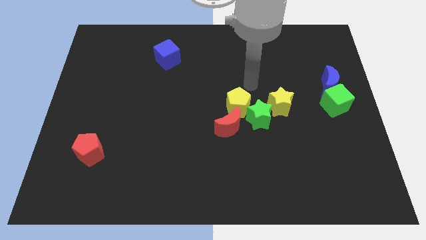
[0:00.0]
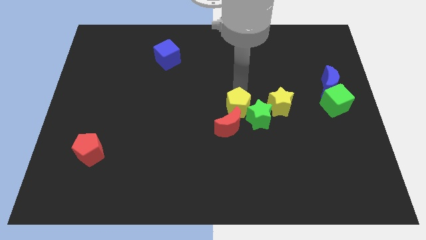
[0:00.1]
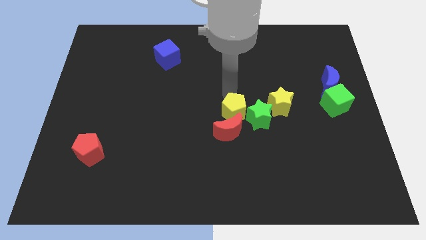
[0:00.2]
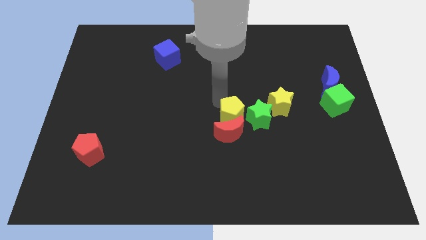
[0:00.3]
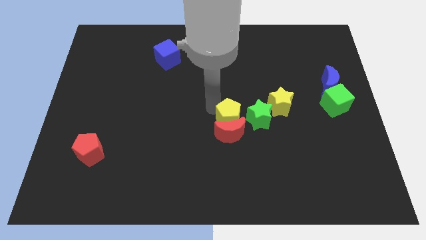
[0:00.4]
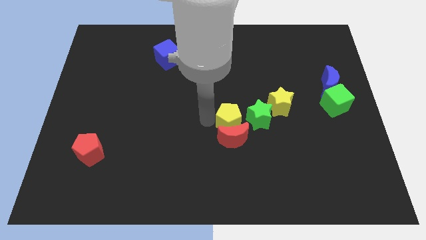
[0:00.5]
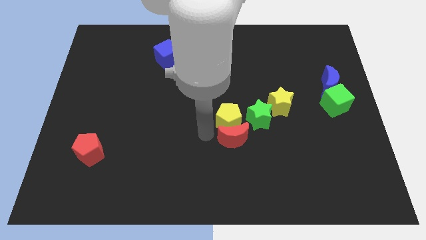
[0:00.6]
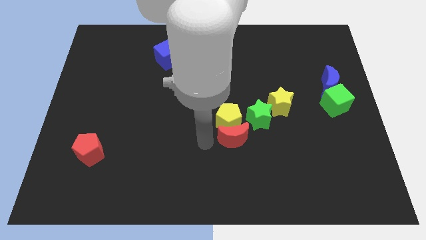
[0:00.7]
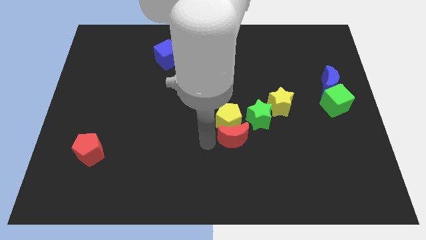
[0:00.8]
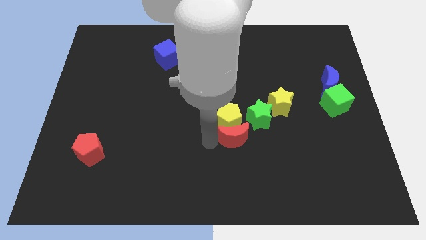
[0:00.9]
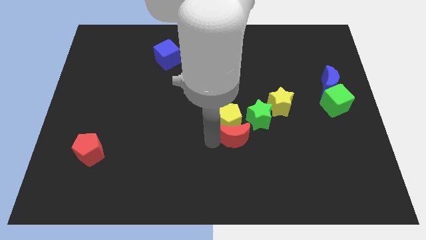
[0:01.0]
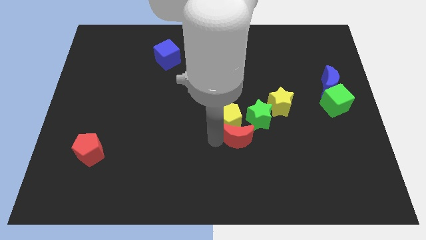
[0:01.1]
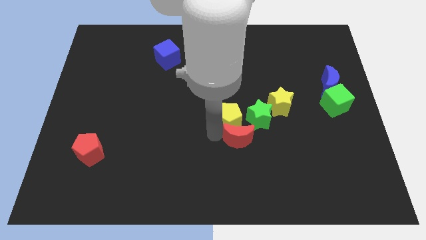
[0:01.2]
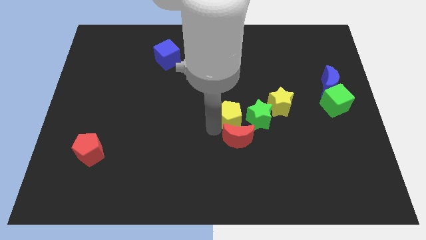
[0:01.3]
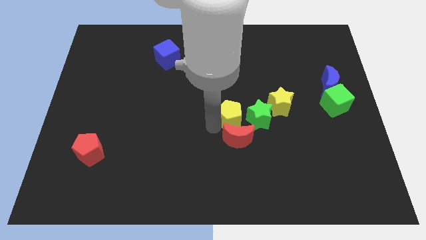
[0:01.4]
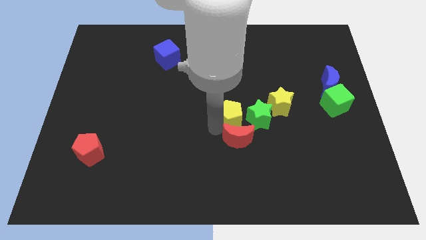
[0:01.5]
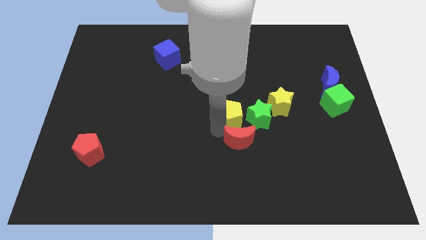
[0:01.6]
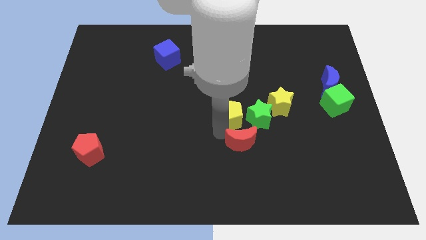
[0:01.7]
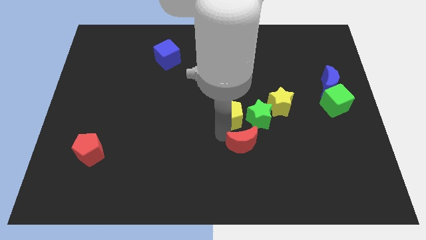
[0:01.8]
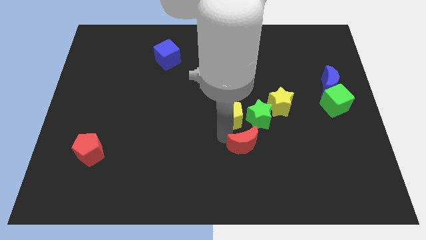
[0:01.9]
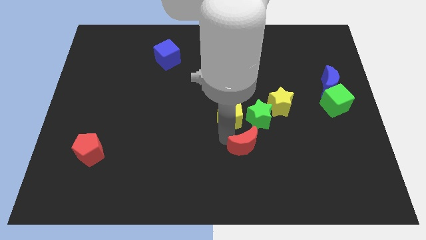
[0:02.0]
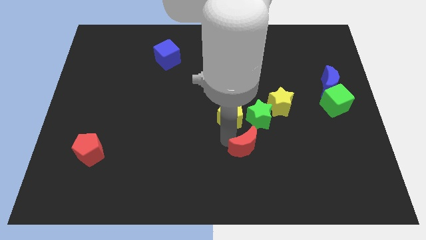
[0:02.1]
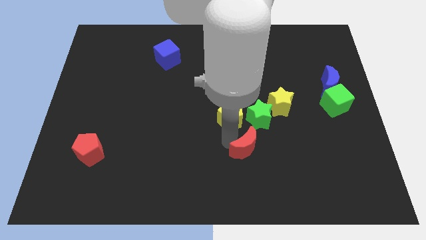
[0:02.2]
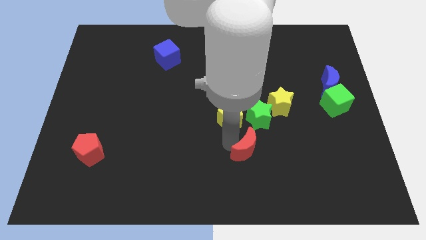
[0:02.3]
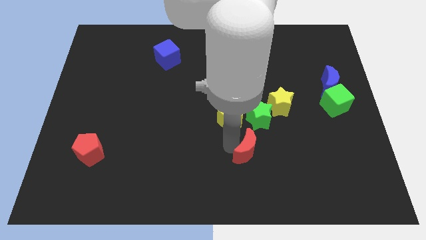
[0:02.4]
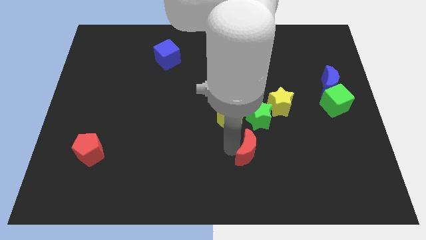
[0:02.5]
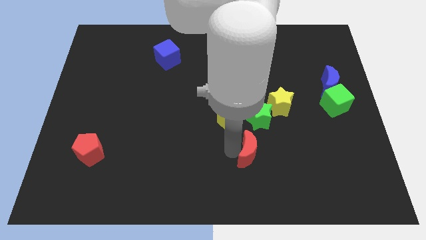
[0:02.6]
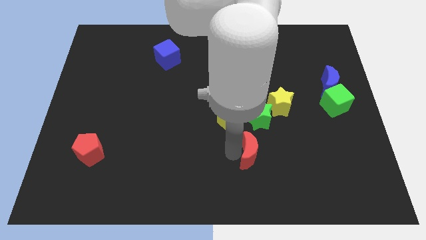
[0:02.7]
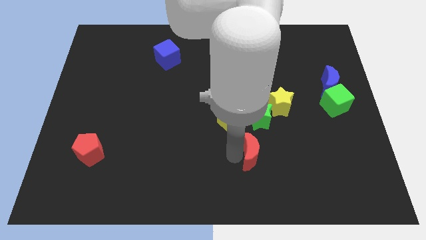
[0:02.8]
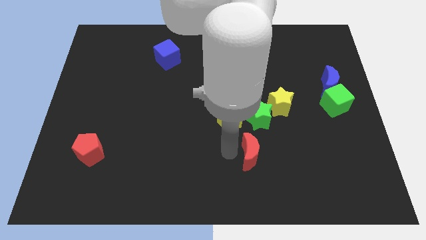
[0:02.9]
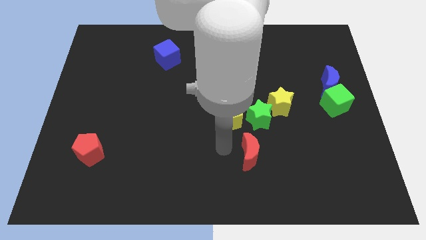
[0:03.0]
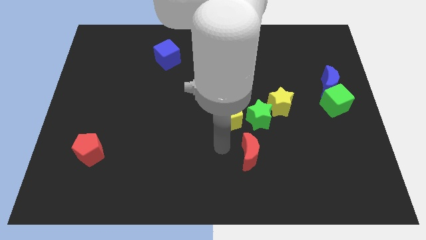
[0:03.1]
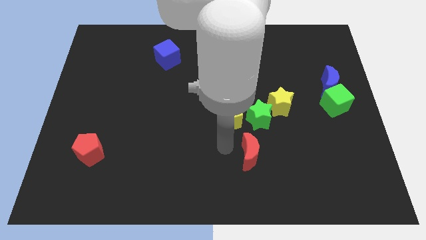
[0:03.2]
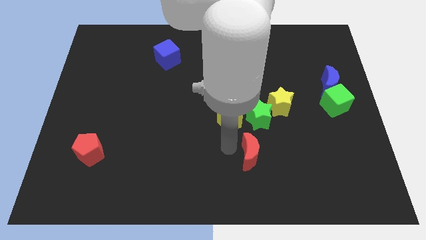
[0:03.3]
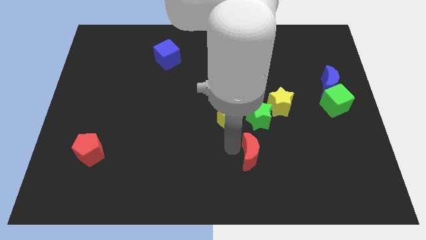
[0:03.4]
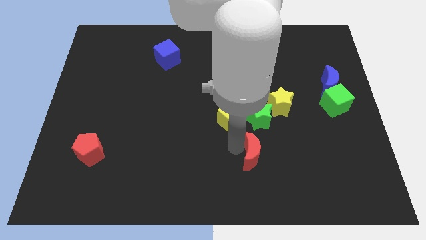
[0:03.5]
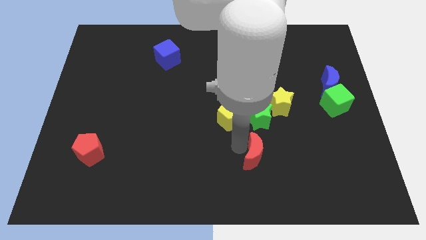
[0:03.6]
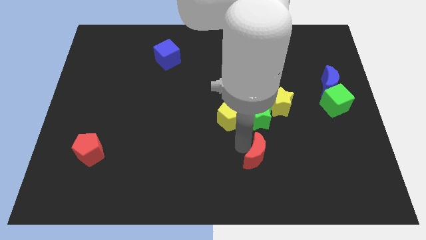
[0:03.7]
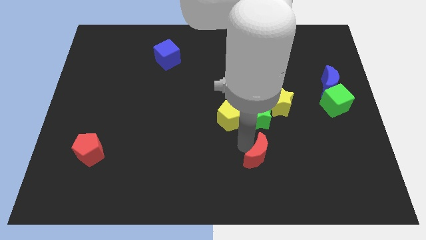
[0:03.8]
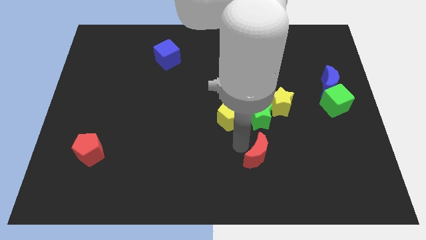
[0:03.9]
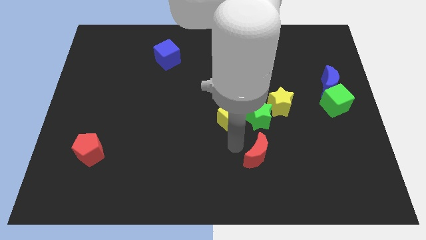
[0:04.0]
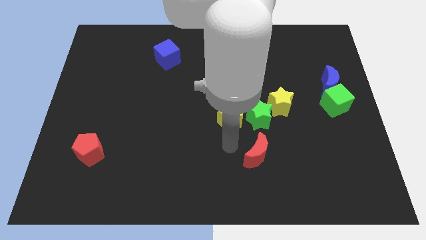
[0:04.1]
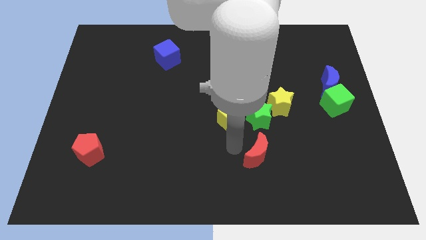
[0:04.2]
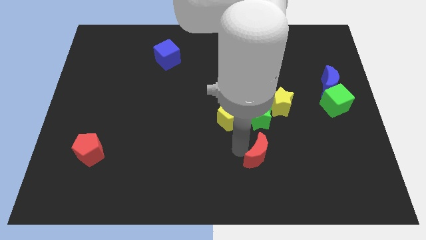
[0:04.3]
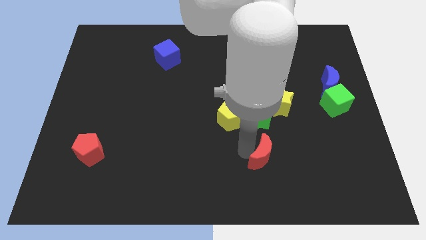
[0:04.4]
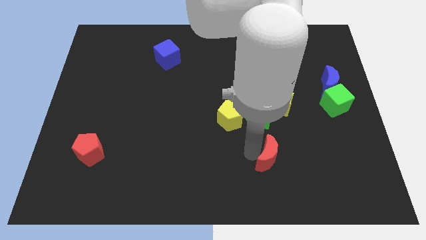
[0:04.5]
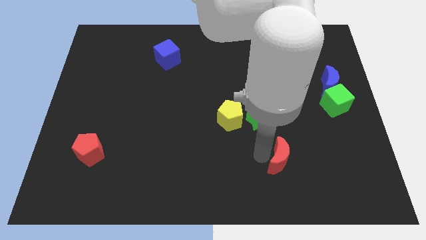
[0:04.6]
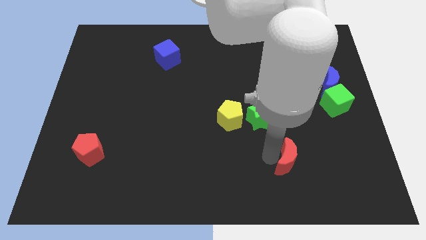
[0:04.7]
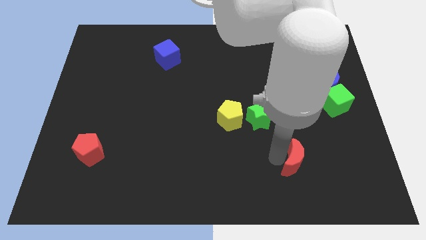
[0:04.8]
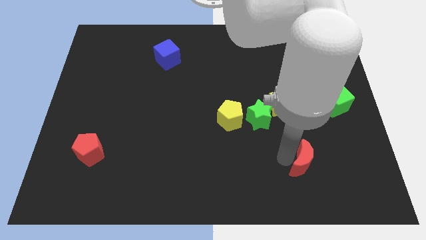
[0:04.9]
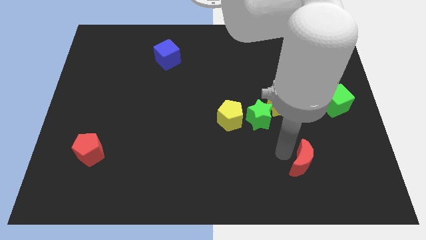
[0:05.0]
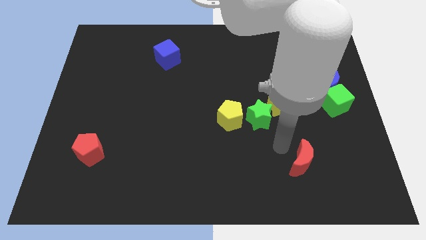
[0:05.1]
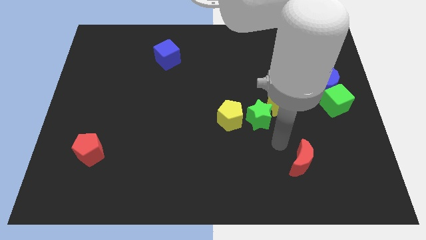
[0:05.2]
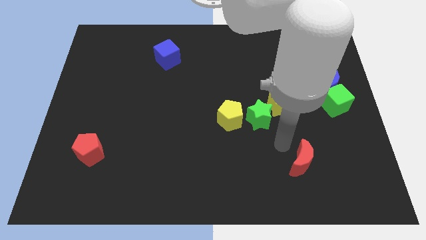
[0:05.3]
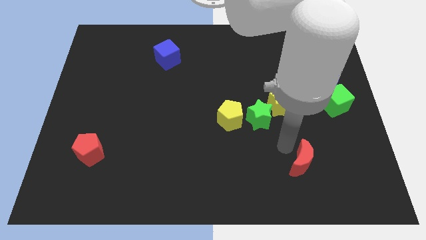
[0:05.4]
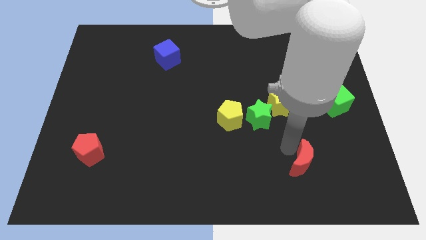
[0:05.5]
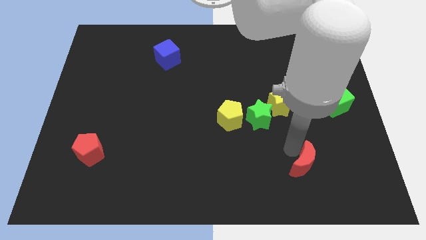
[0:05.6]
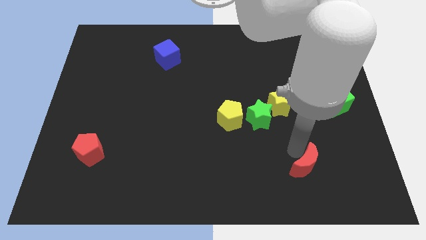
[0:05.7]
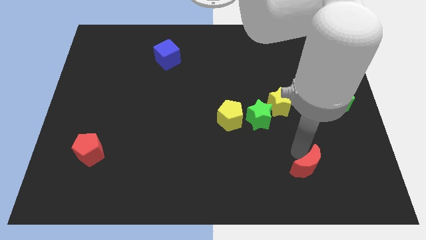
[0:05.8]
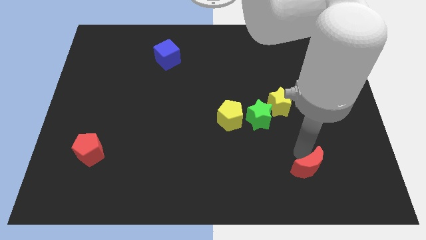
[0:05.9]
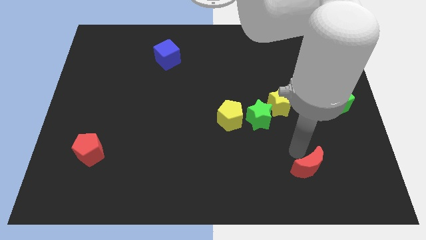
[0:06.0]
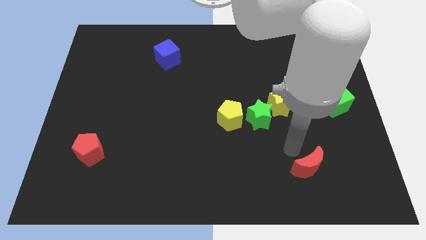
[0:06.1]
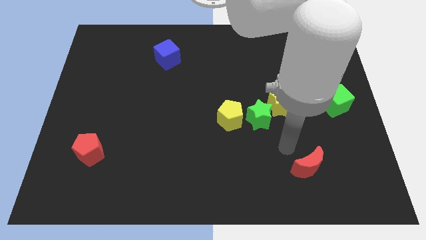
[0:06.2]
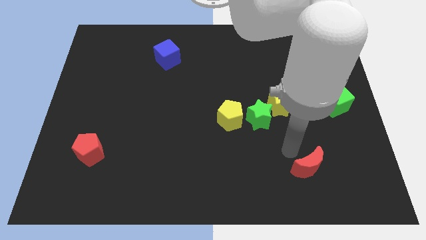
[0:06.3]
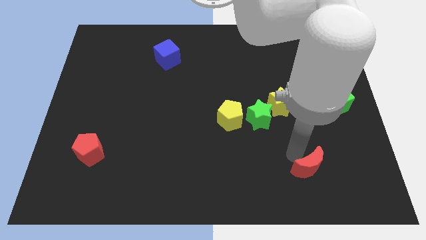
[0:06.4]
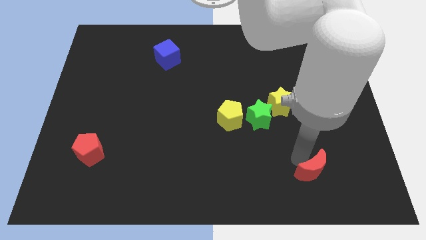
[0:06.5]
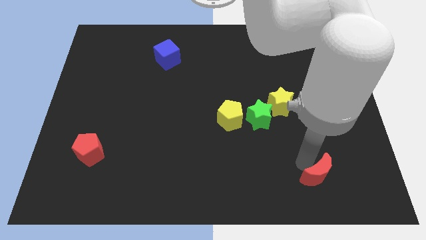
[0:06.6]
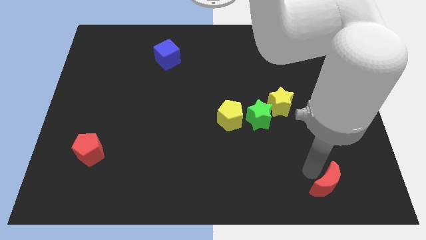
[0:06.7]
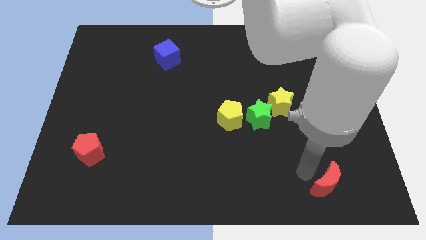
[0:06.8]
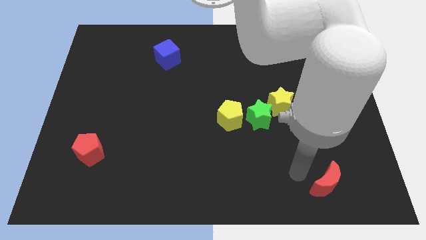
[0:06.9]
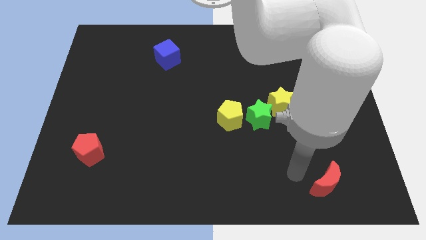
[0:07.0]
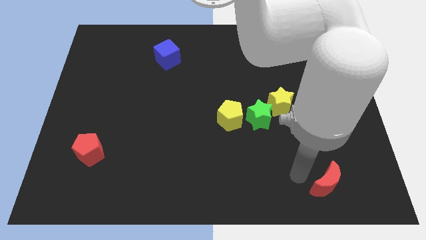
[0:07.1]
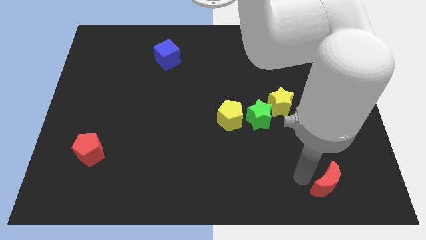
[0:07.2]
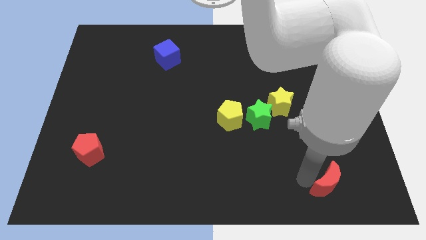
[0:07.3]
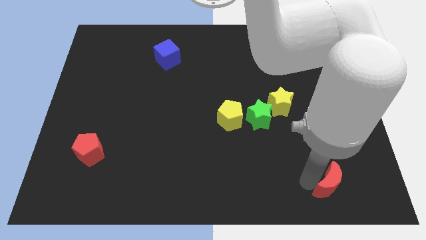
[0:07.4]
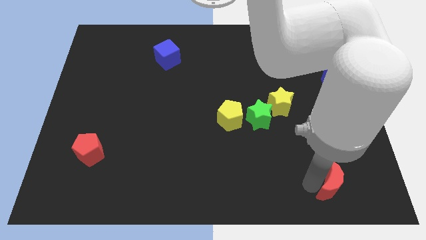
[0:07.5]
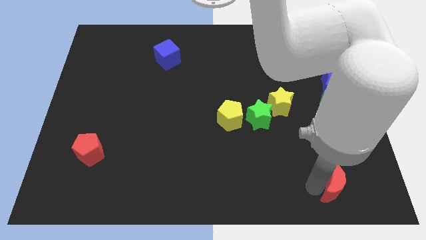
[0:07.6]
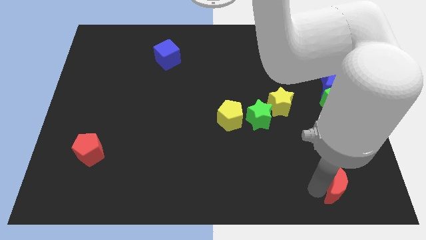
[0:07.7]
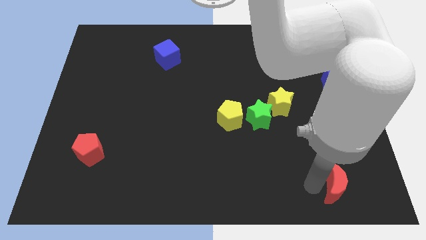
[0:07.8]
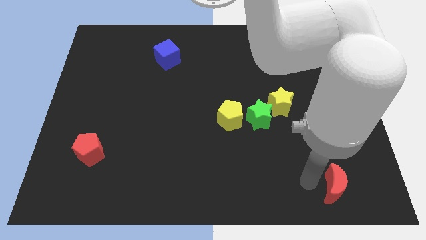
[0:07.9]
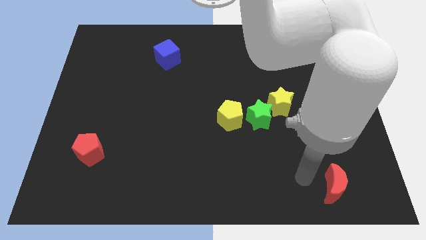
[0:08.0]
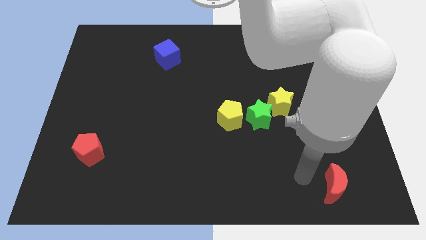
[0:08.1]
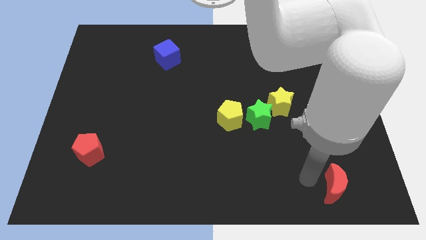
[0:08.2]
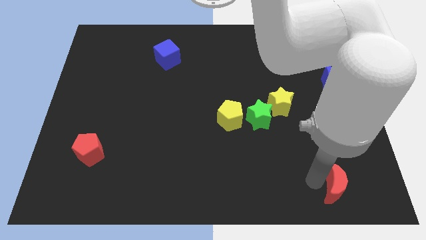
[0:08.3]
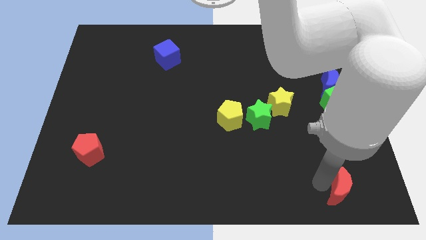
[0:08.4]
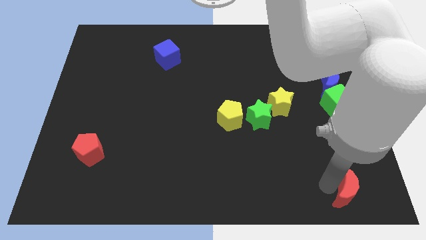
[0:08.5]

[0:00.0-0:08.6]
move the red moon to the lower right corner
